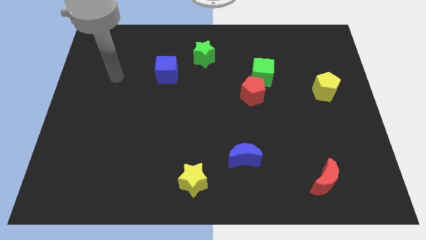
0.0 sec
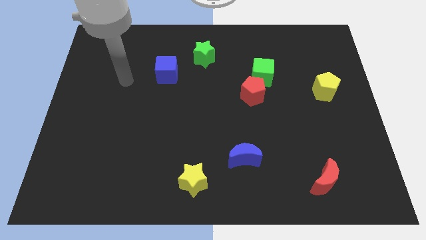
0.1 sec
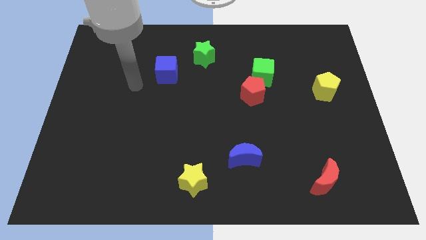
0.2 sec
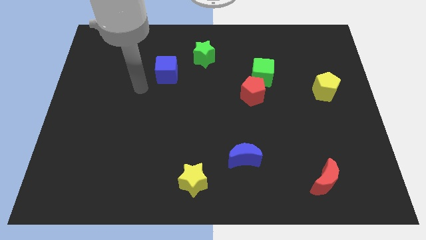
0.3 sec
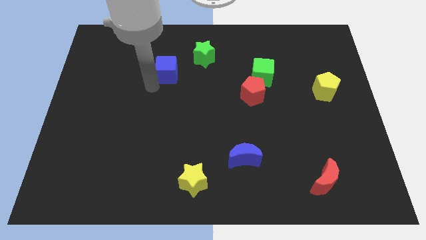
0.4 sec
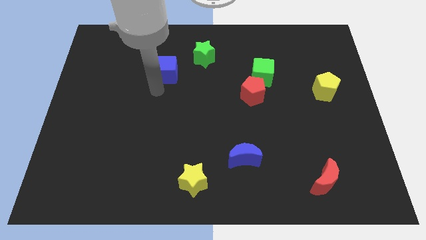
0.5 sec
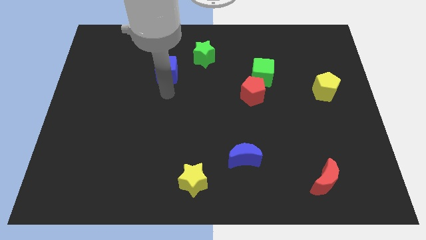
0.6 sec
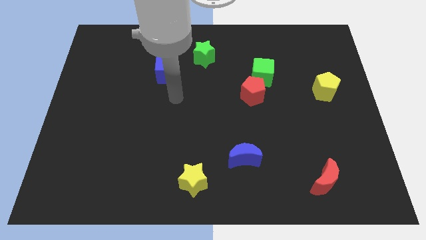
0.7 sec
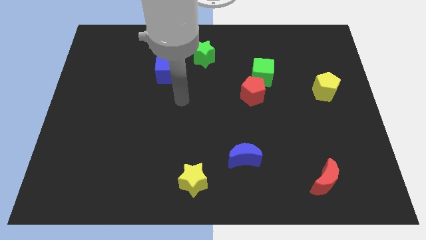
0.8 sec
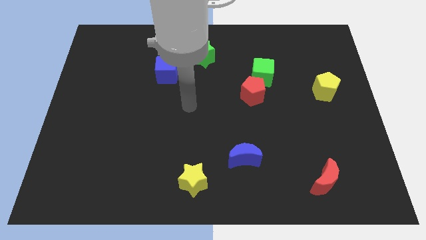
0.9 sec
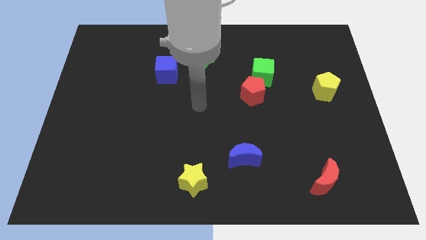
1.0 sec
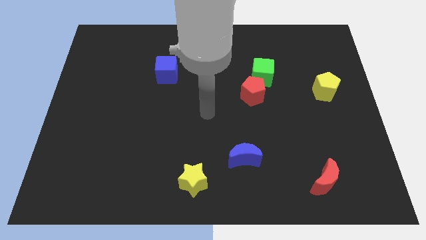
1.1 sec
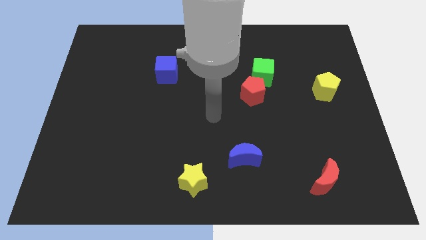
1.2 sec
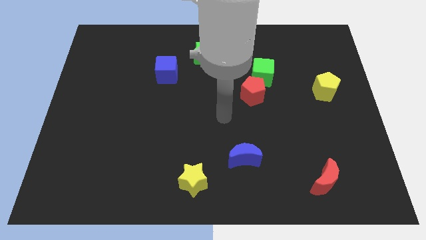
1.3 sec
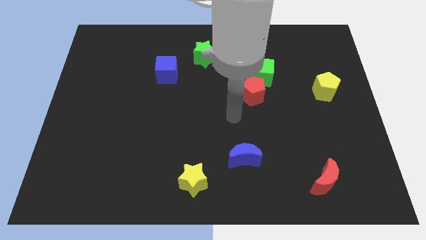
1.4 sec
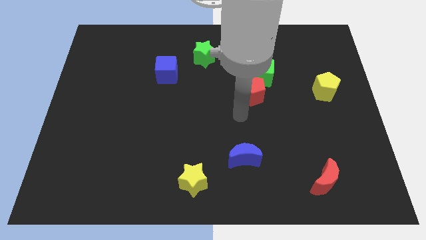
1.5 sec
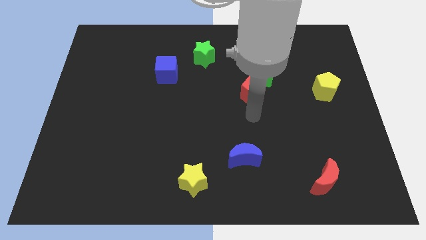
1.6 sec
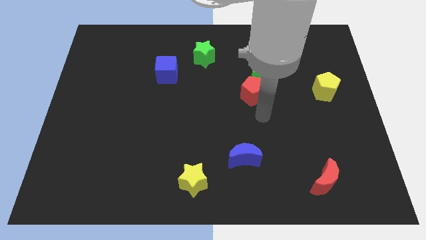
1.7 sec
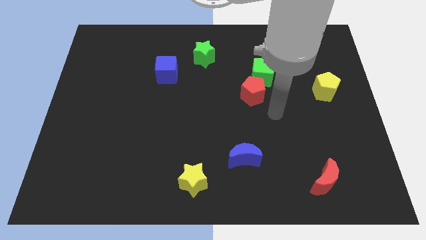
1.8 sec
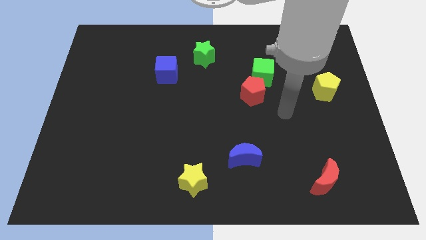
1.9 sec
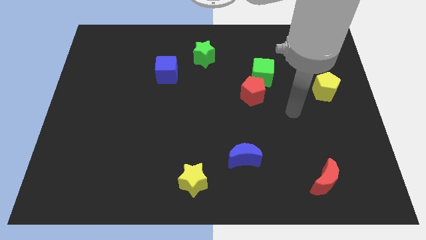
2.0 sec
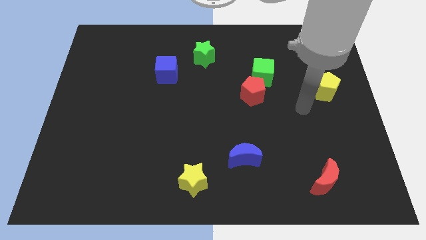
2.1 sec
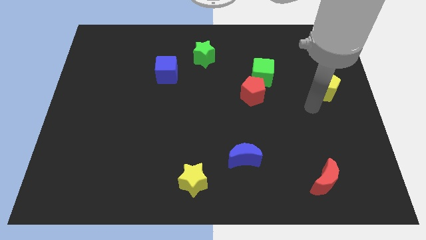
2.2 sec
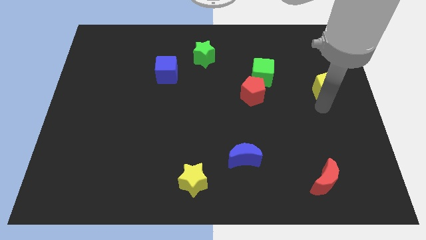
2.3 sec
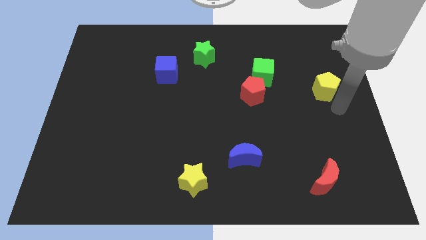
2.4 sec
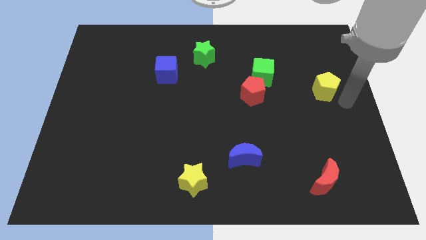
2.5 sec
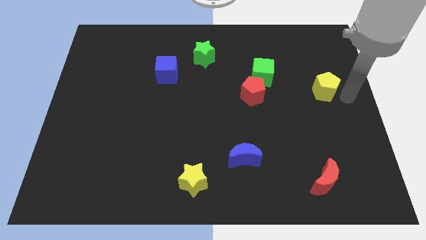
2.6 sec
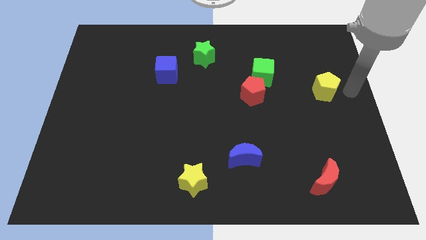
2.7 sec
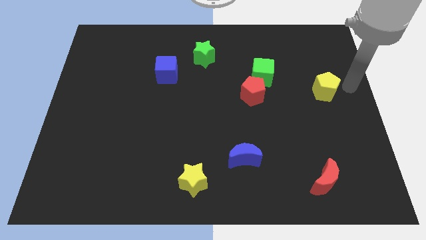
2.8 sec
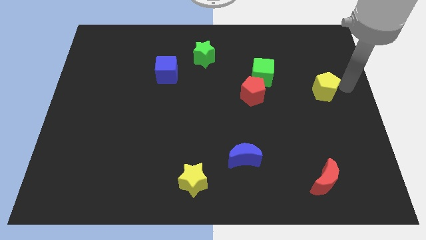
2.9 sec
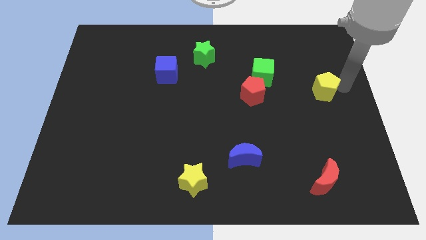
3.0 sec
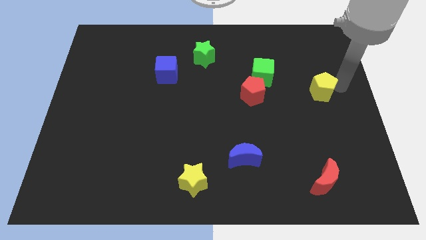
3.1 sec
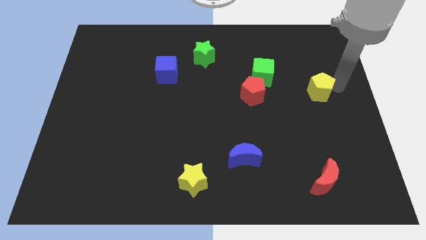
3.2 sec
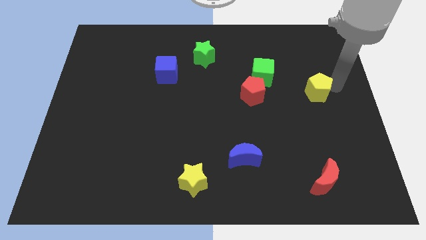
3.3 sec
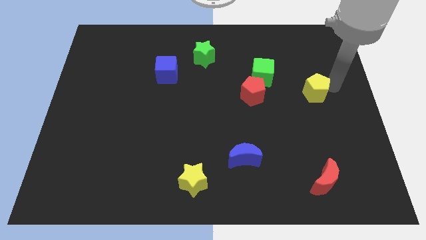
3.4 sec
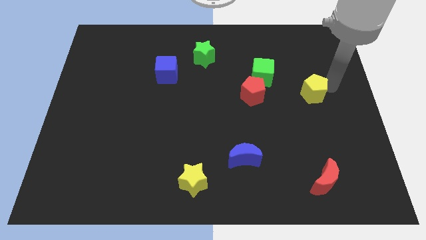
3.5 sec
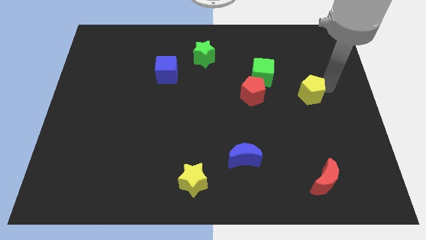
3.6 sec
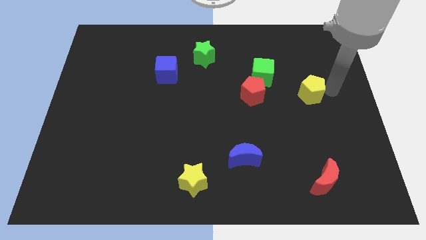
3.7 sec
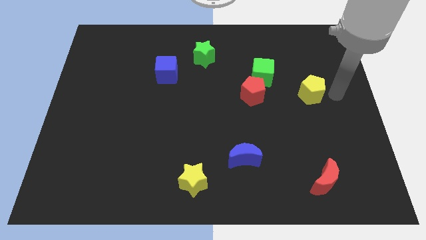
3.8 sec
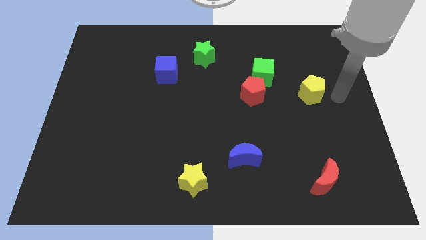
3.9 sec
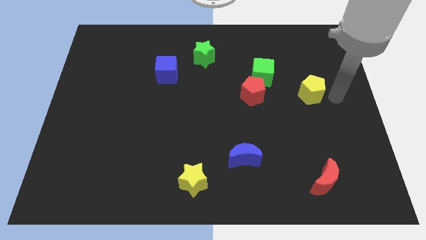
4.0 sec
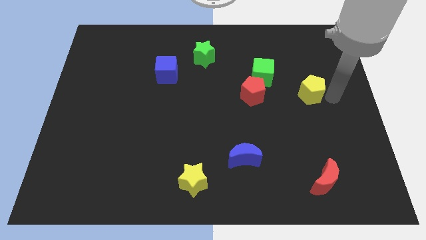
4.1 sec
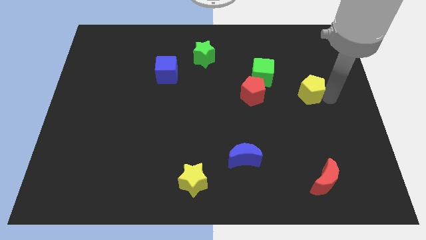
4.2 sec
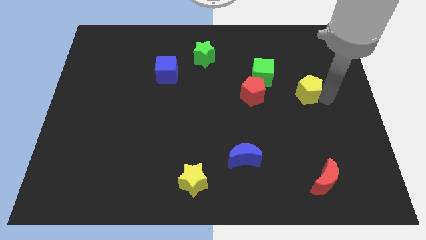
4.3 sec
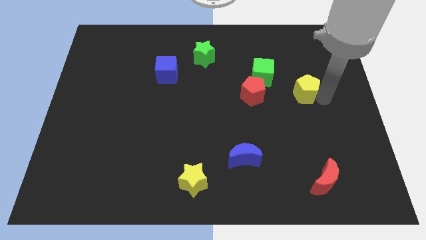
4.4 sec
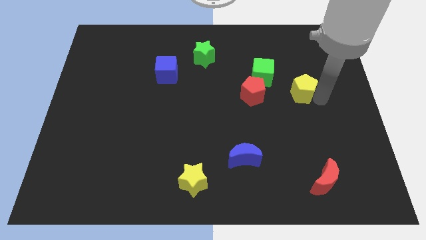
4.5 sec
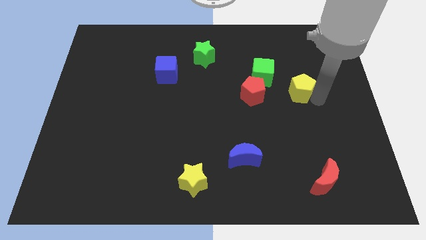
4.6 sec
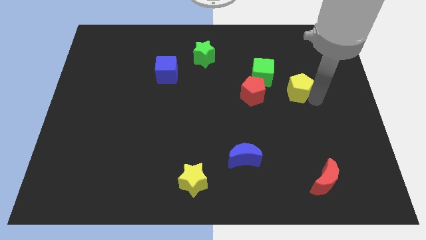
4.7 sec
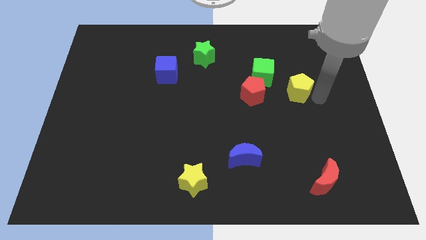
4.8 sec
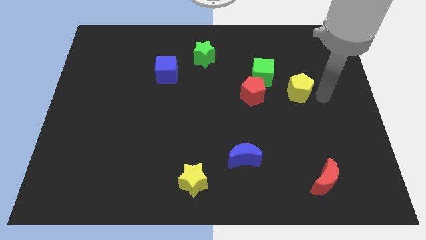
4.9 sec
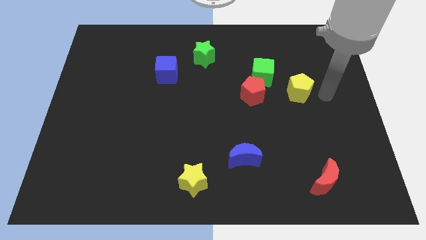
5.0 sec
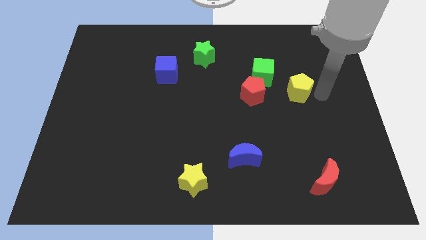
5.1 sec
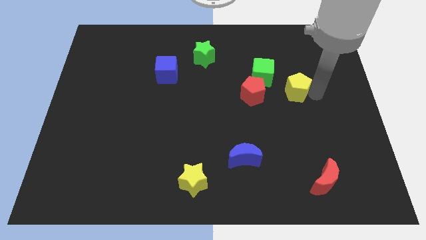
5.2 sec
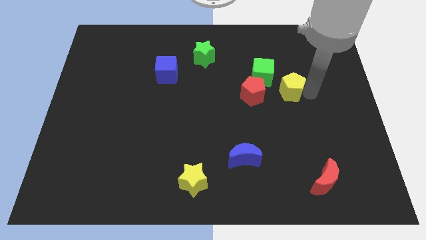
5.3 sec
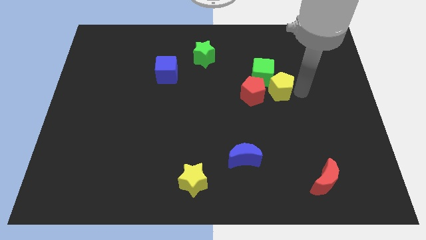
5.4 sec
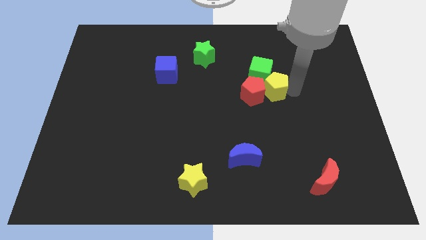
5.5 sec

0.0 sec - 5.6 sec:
push the yellow pentagon towards the red pentagon

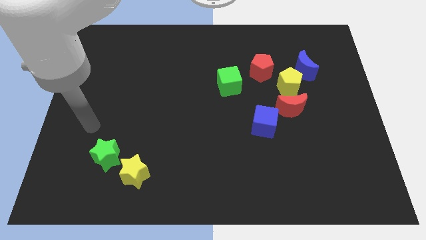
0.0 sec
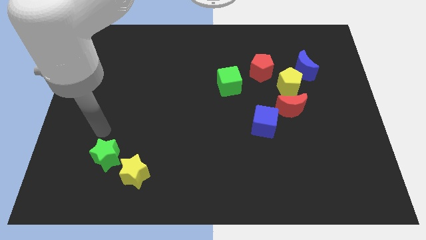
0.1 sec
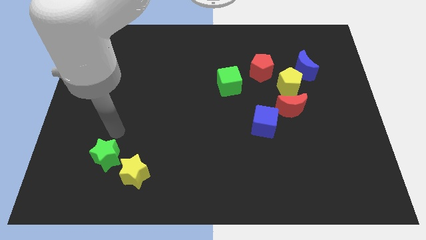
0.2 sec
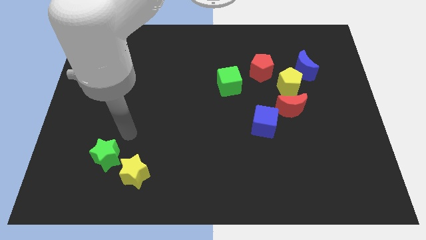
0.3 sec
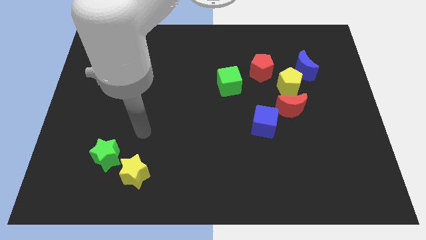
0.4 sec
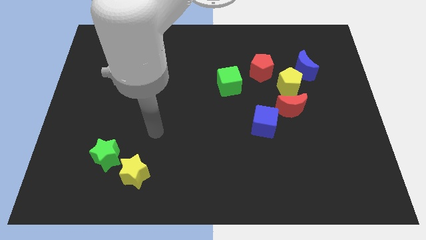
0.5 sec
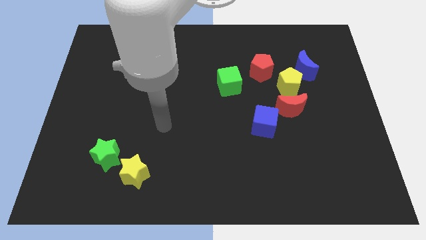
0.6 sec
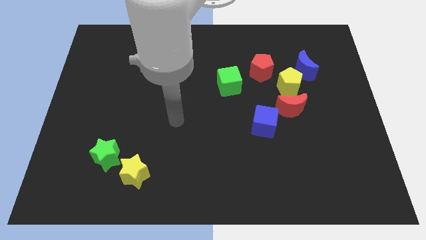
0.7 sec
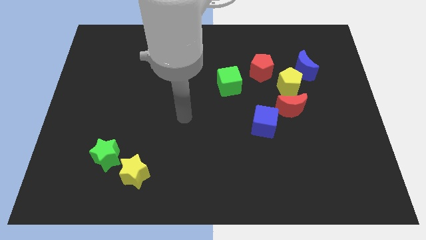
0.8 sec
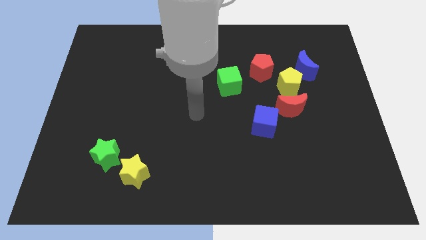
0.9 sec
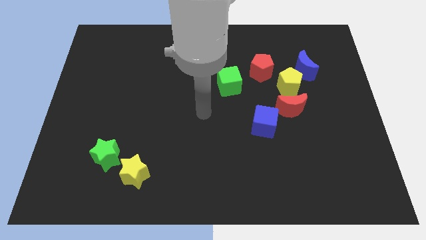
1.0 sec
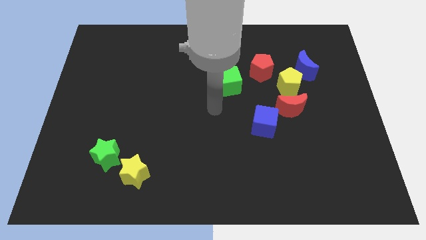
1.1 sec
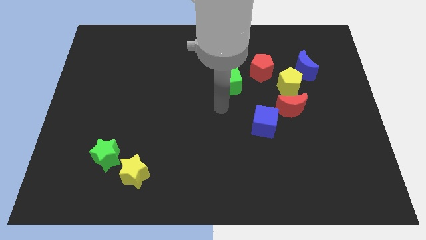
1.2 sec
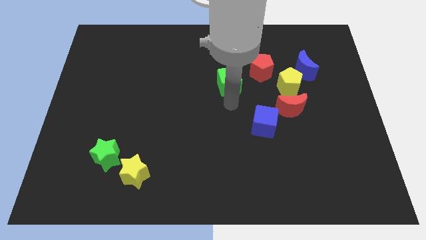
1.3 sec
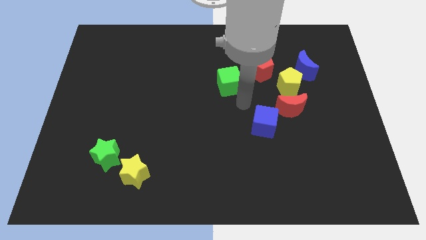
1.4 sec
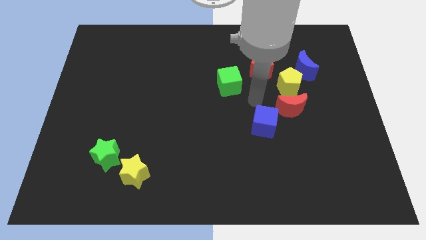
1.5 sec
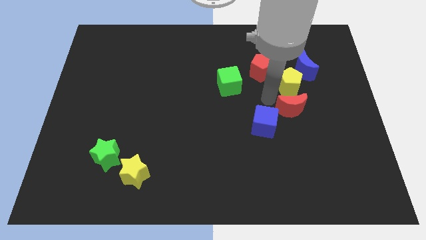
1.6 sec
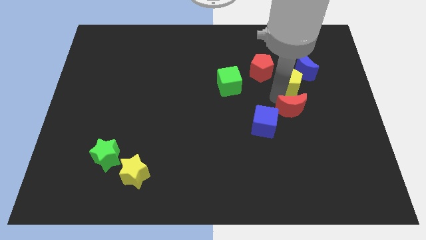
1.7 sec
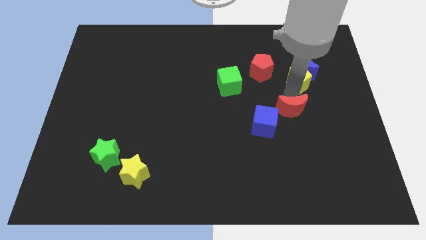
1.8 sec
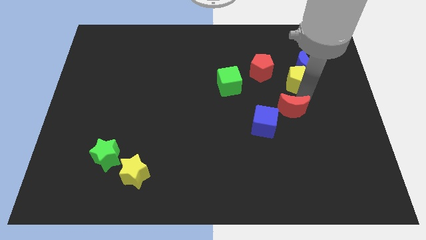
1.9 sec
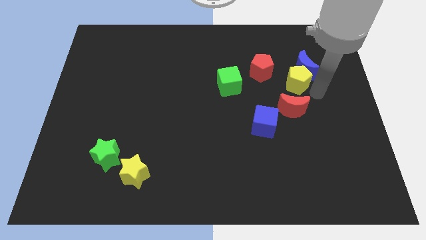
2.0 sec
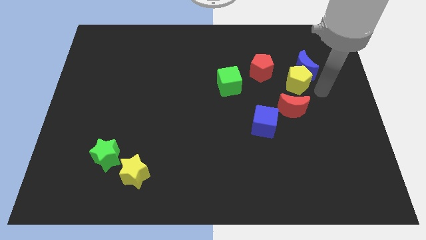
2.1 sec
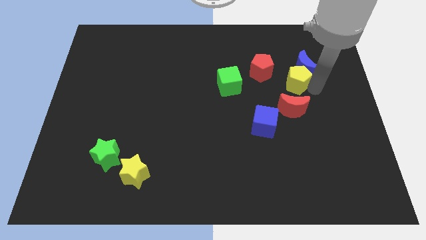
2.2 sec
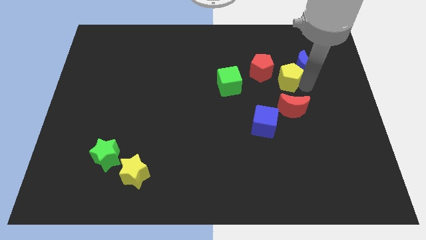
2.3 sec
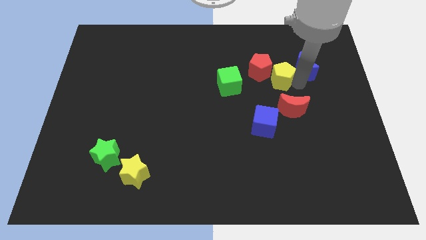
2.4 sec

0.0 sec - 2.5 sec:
move the yellow pentagon close to the red pentagon
